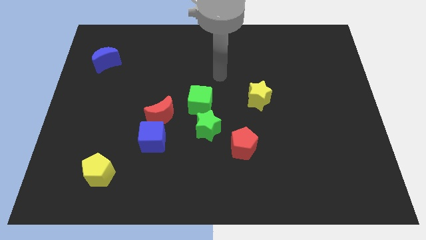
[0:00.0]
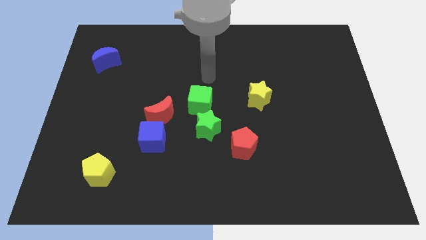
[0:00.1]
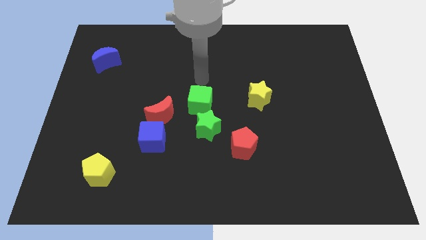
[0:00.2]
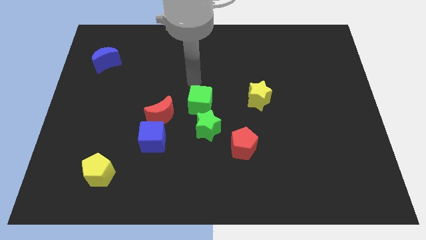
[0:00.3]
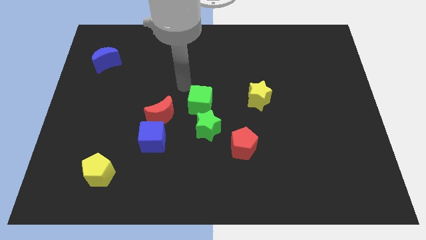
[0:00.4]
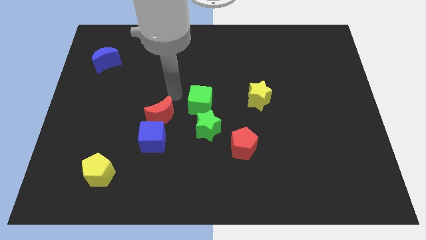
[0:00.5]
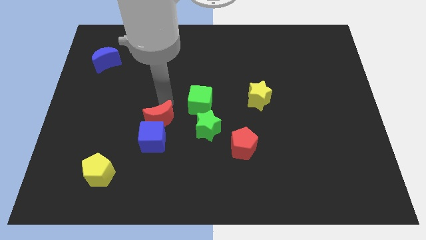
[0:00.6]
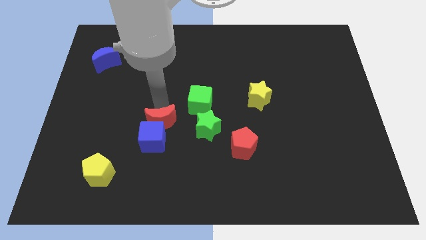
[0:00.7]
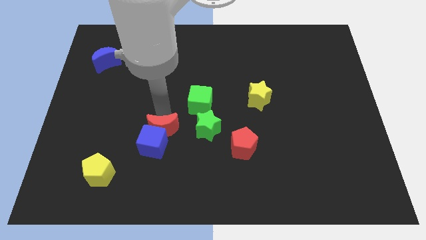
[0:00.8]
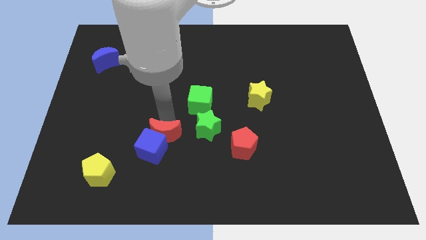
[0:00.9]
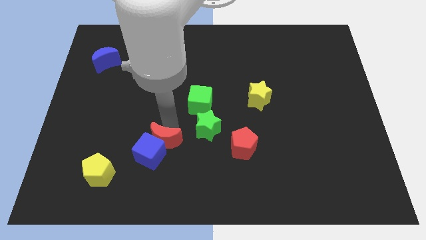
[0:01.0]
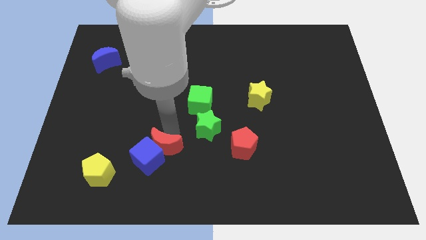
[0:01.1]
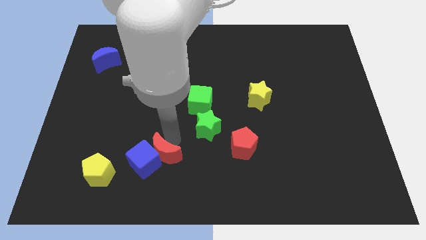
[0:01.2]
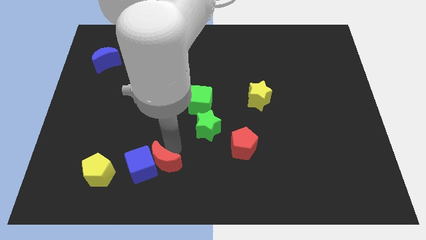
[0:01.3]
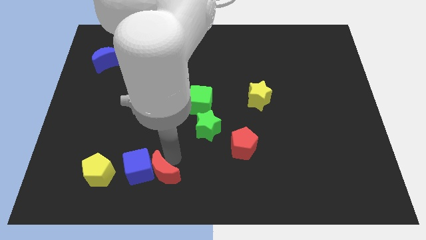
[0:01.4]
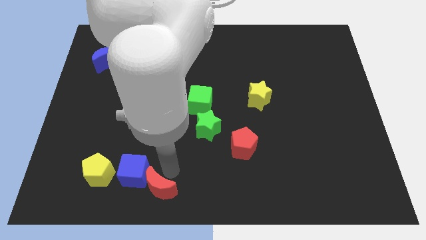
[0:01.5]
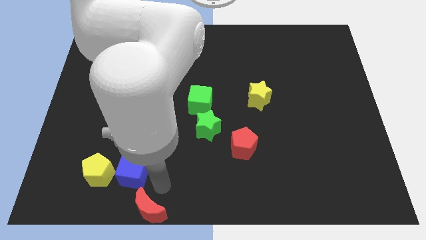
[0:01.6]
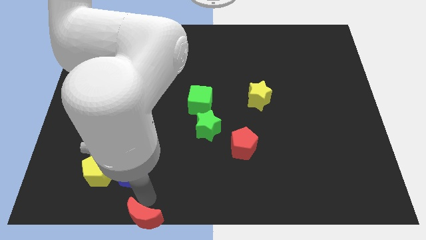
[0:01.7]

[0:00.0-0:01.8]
separate the blue cube from the red moon

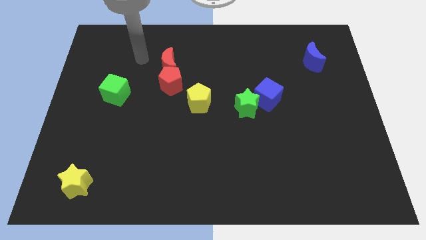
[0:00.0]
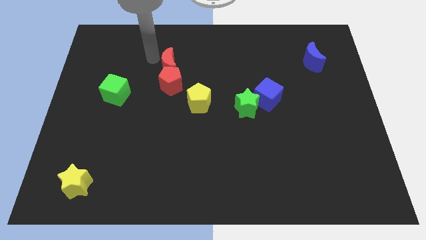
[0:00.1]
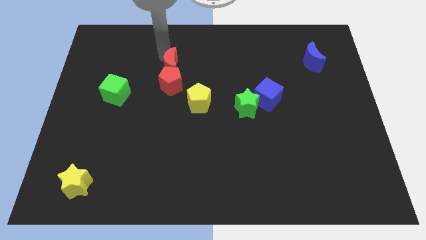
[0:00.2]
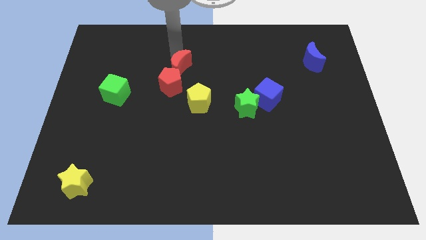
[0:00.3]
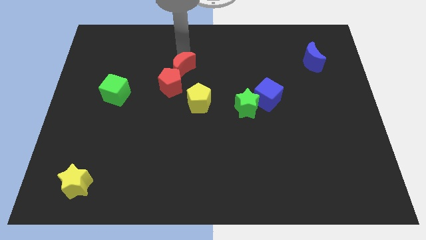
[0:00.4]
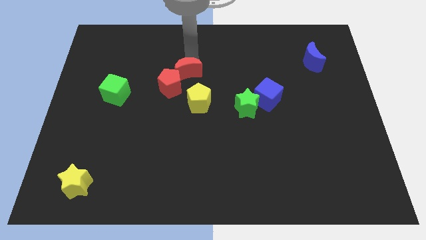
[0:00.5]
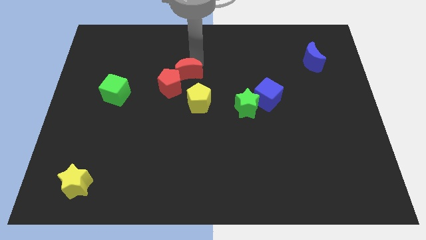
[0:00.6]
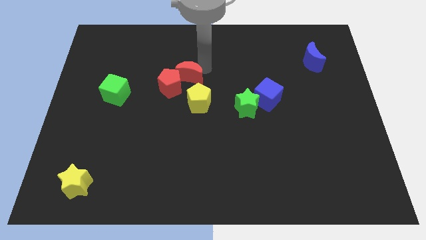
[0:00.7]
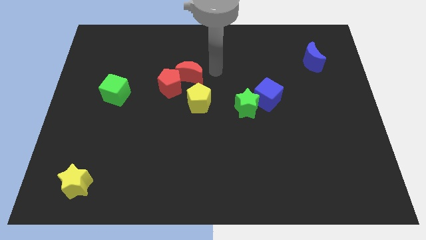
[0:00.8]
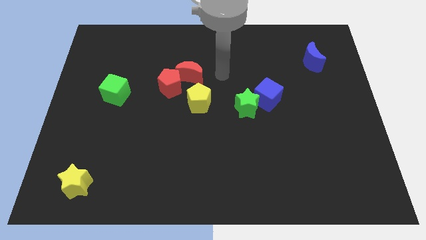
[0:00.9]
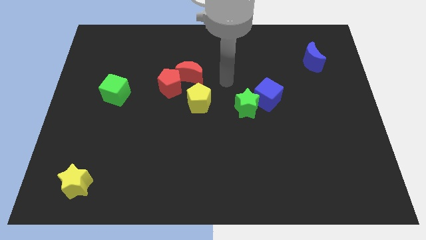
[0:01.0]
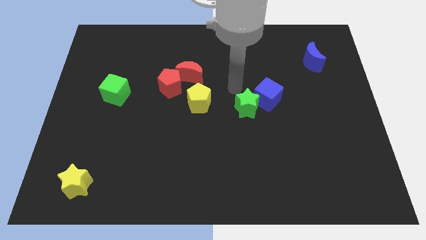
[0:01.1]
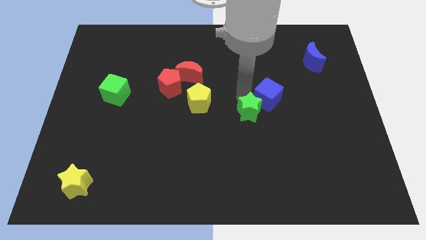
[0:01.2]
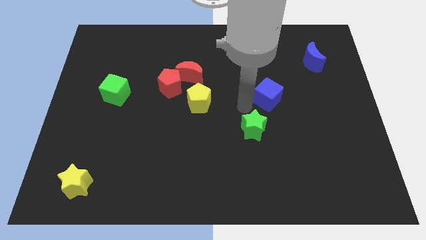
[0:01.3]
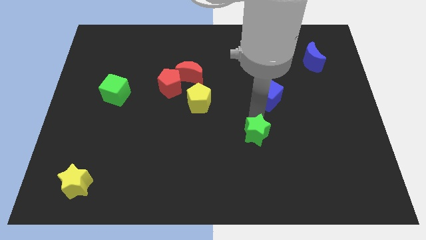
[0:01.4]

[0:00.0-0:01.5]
separate the blue cube from the green star

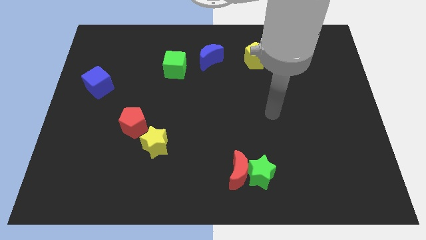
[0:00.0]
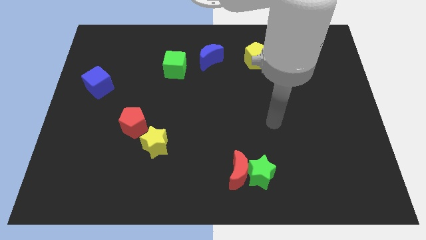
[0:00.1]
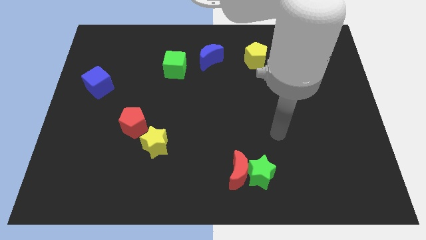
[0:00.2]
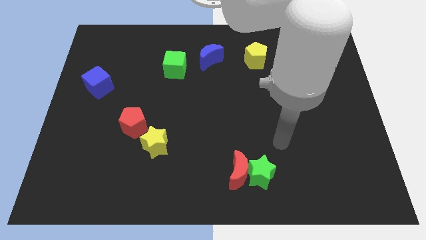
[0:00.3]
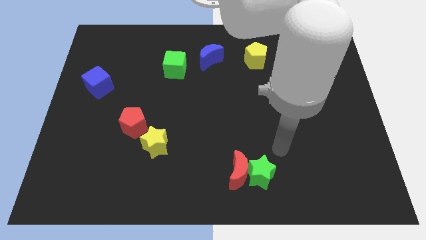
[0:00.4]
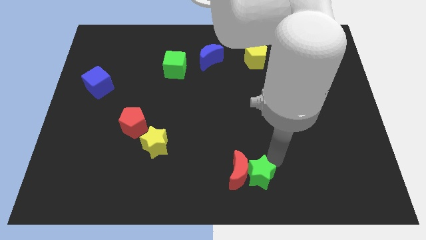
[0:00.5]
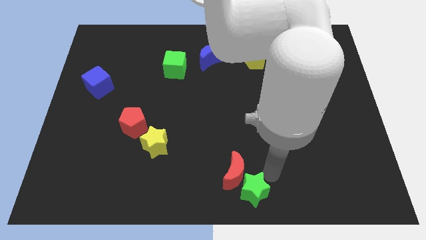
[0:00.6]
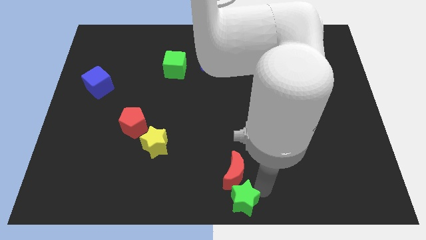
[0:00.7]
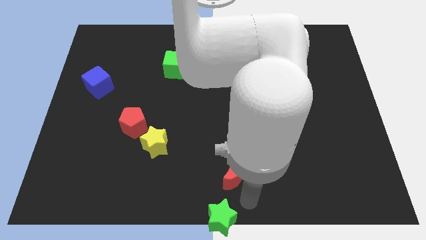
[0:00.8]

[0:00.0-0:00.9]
pull the red moon apart from the green star

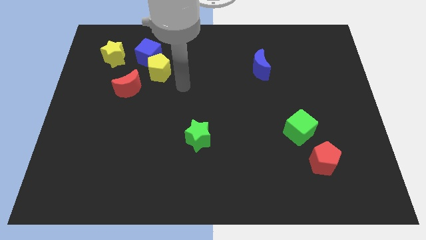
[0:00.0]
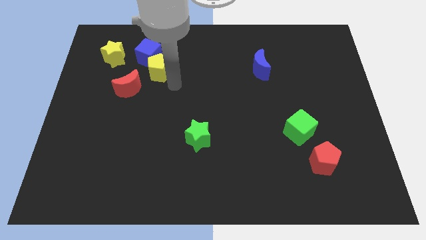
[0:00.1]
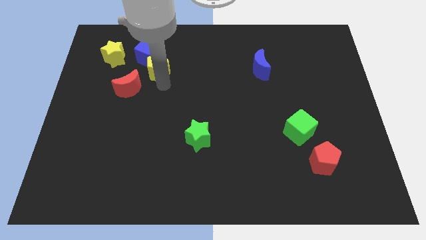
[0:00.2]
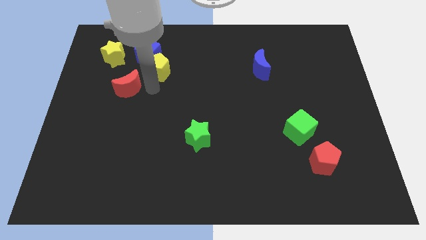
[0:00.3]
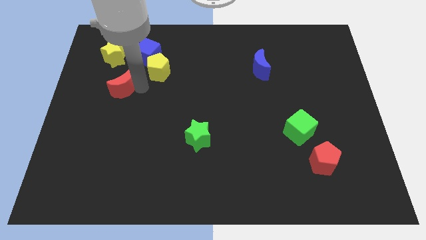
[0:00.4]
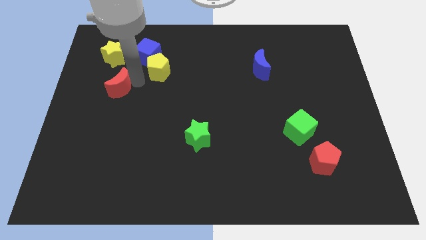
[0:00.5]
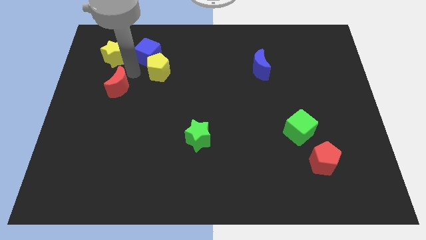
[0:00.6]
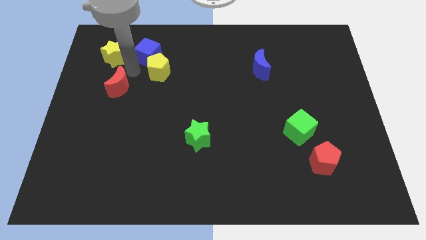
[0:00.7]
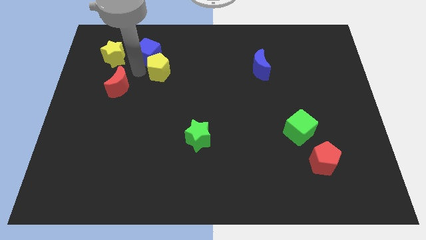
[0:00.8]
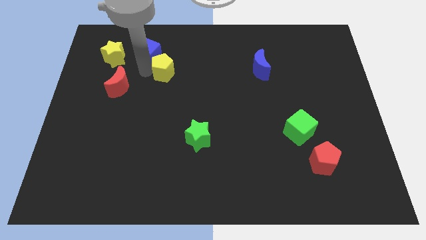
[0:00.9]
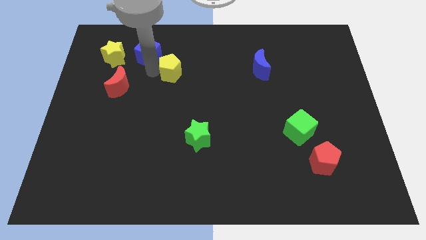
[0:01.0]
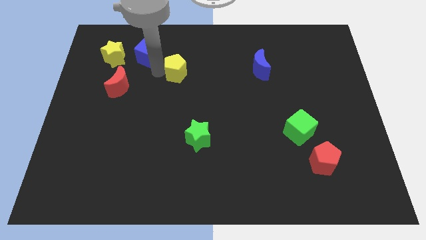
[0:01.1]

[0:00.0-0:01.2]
separate the yellow pentagon from the blue cube and red moon

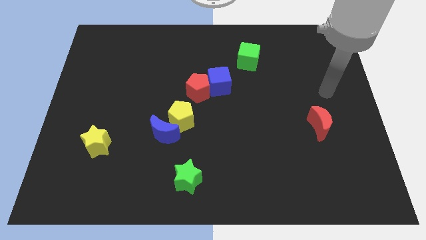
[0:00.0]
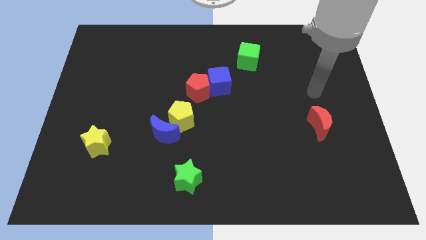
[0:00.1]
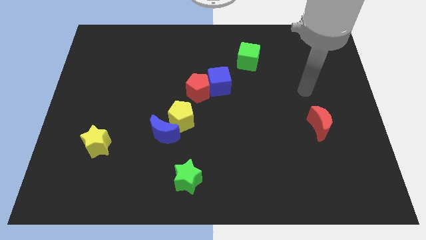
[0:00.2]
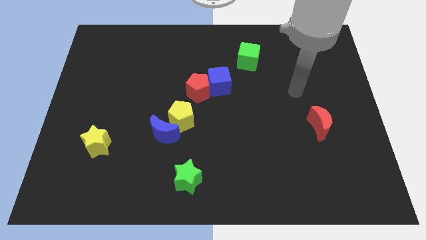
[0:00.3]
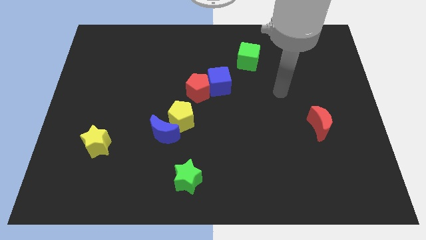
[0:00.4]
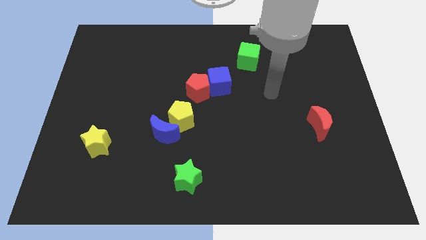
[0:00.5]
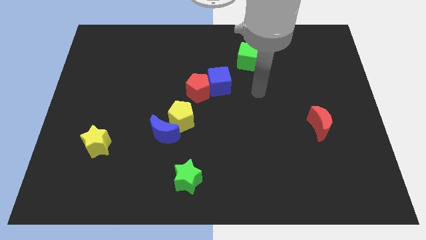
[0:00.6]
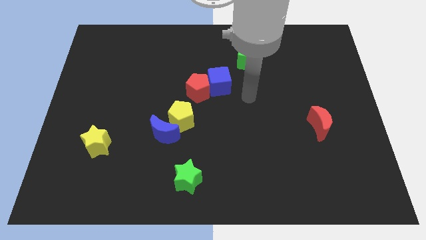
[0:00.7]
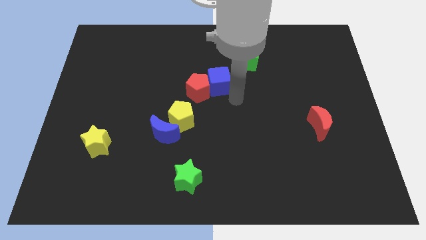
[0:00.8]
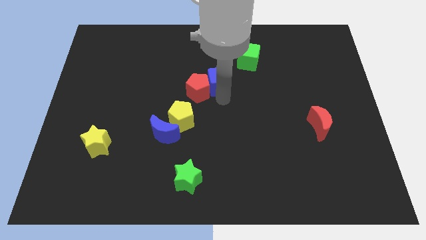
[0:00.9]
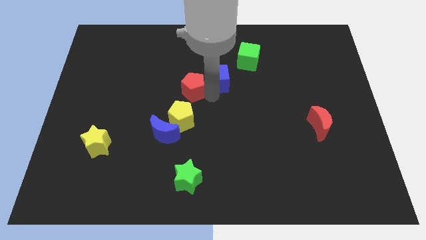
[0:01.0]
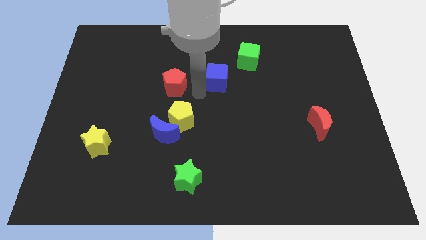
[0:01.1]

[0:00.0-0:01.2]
separate the blue cube from the red pentagon

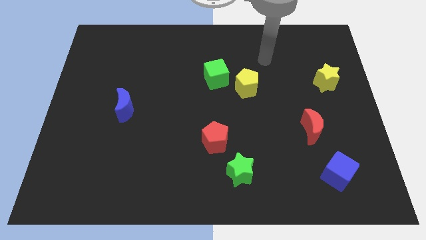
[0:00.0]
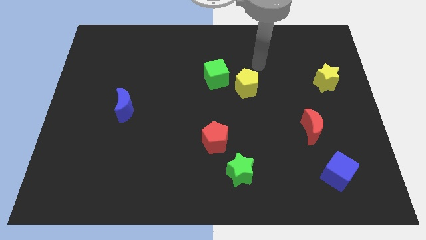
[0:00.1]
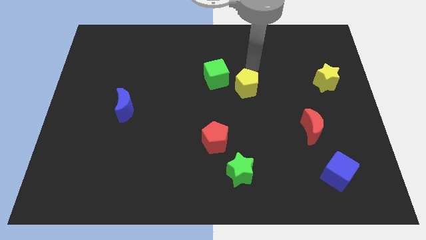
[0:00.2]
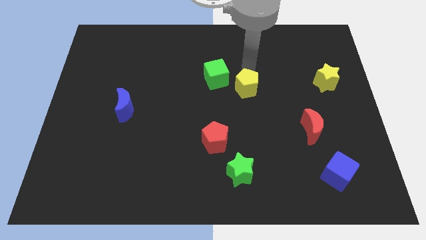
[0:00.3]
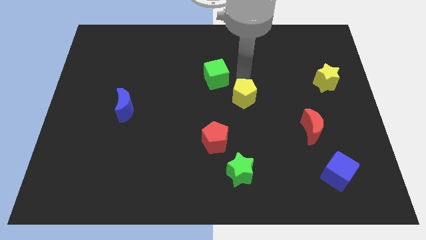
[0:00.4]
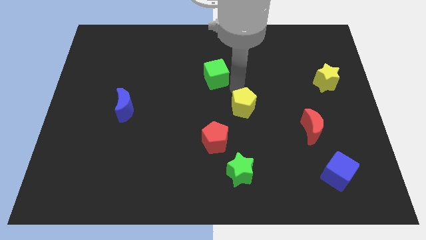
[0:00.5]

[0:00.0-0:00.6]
move the green cube away from the yellow pentagon

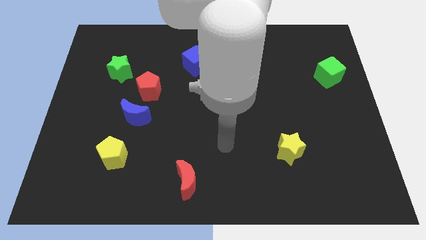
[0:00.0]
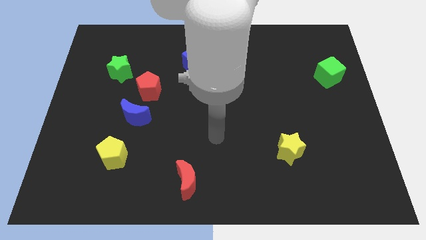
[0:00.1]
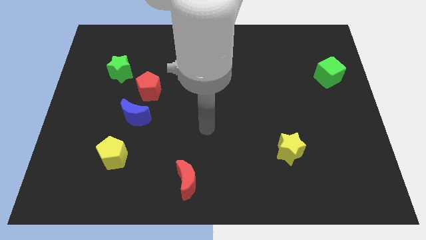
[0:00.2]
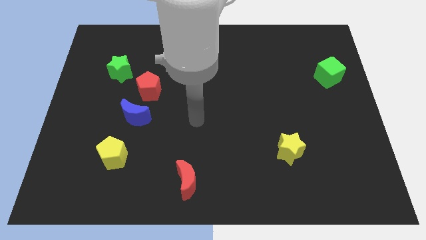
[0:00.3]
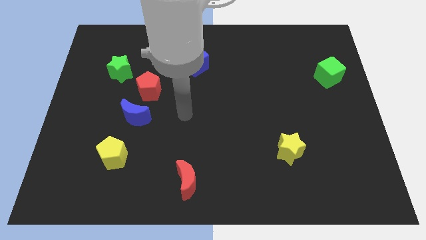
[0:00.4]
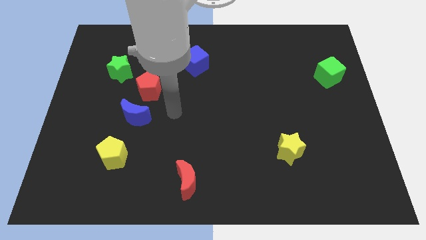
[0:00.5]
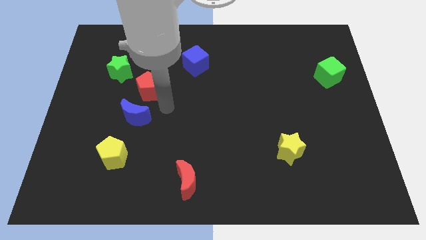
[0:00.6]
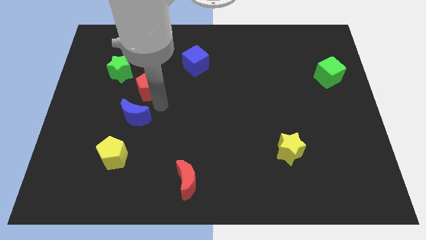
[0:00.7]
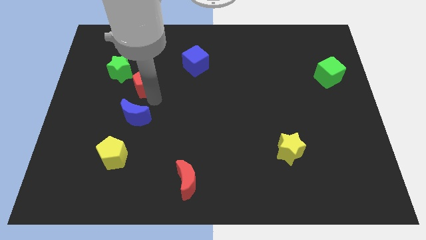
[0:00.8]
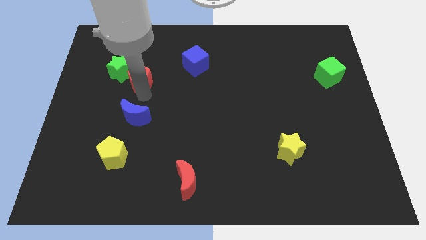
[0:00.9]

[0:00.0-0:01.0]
pull the blue moon apart from the red pentagon

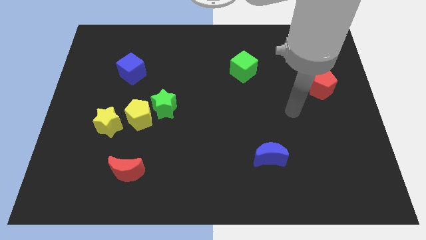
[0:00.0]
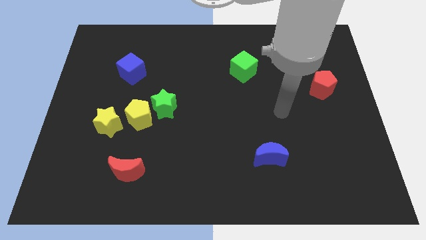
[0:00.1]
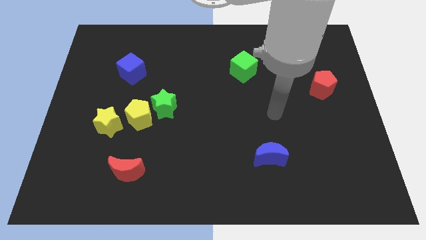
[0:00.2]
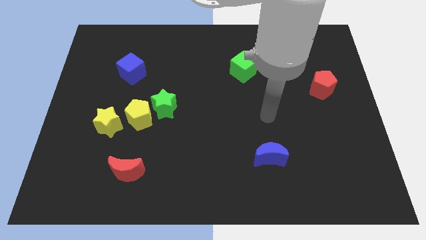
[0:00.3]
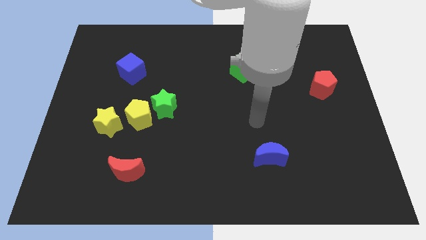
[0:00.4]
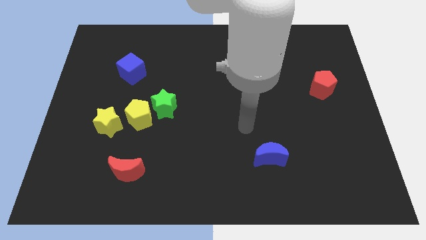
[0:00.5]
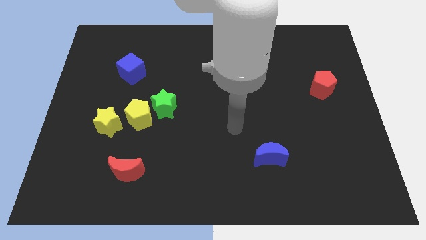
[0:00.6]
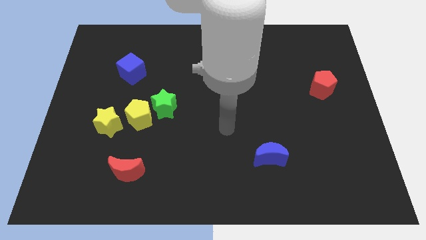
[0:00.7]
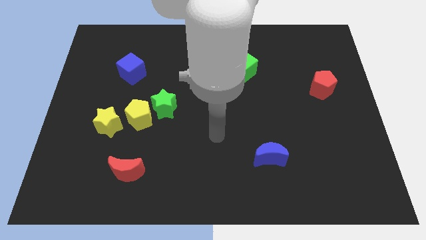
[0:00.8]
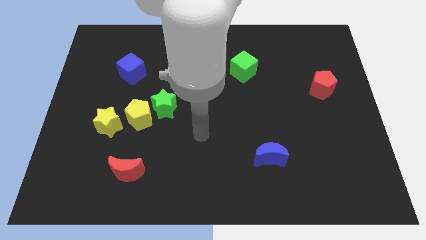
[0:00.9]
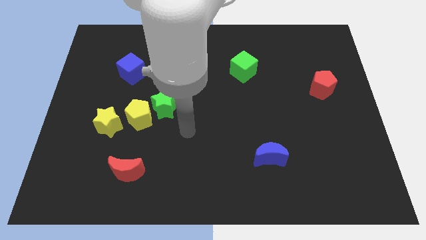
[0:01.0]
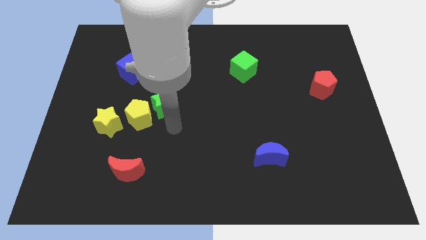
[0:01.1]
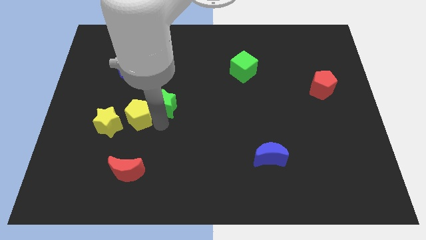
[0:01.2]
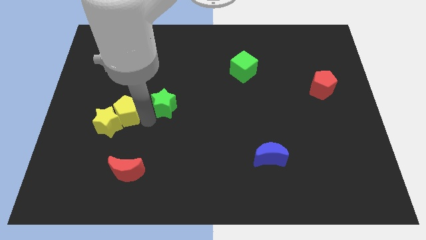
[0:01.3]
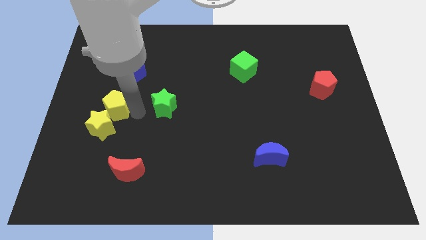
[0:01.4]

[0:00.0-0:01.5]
separate the green star from the yellow pentagon
